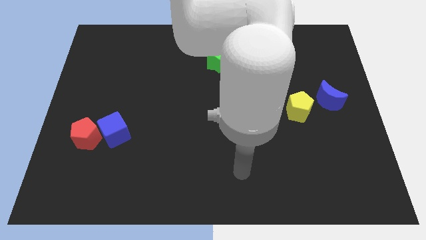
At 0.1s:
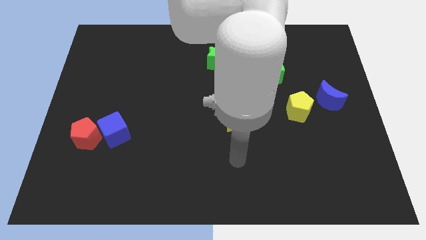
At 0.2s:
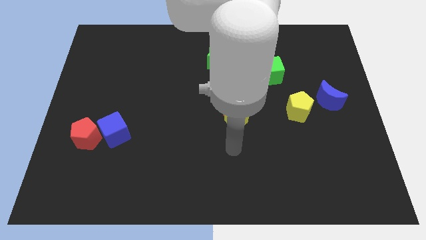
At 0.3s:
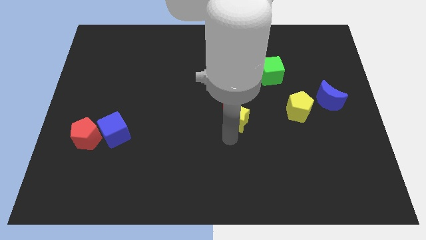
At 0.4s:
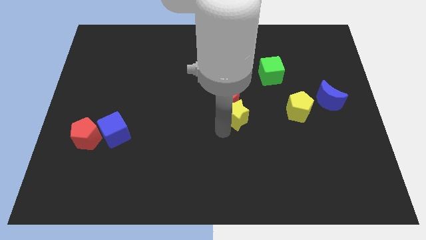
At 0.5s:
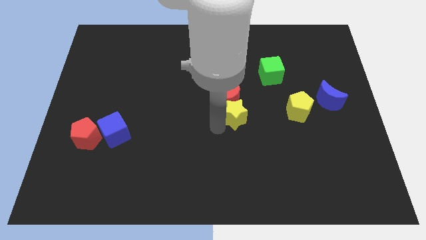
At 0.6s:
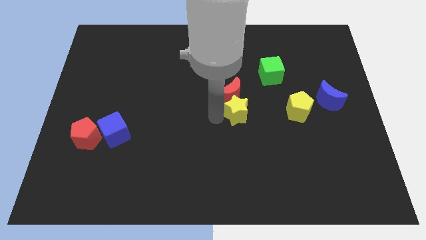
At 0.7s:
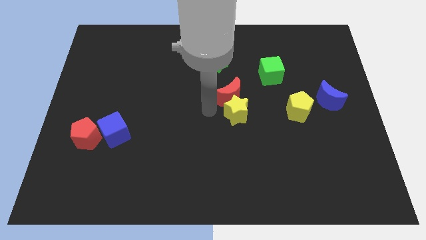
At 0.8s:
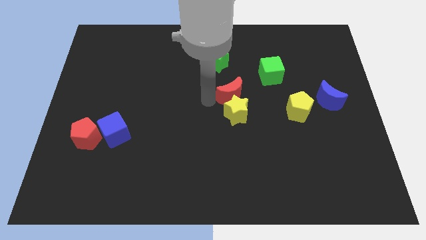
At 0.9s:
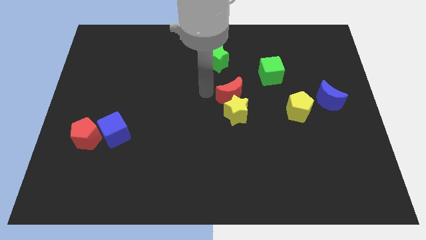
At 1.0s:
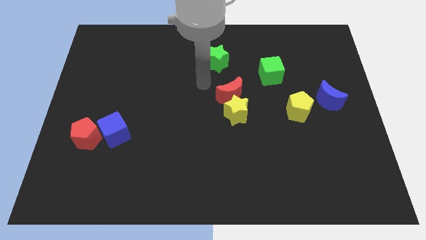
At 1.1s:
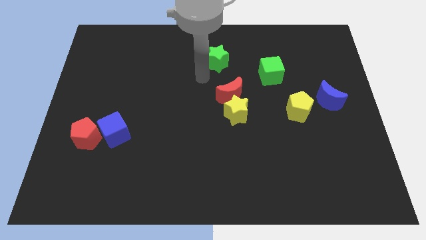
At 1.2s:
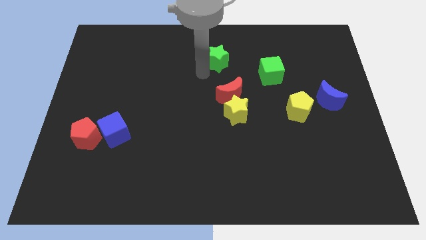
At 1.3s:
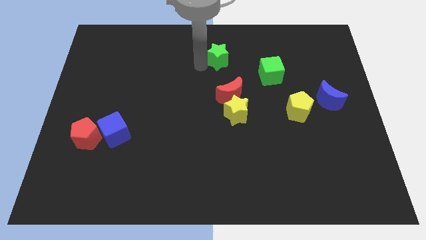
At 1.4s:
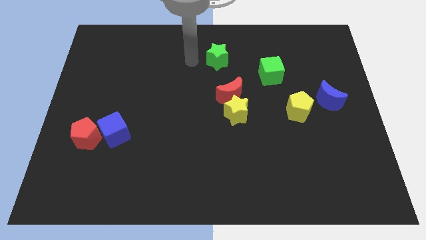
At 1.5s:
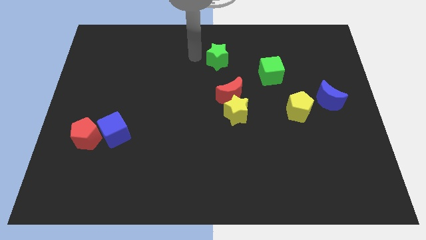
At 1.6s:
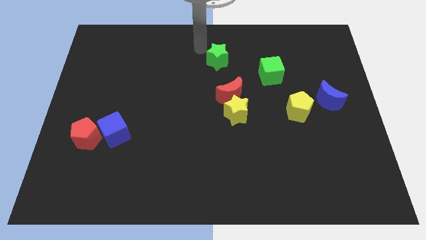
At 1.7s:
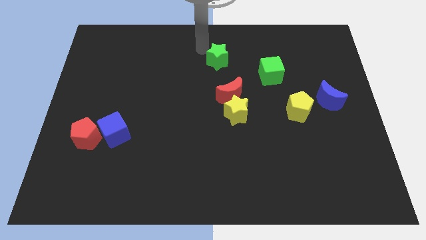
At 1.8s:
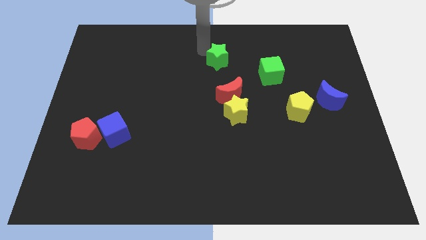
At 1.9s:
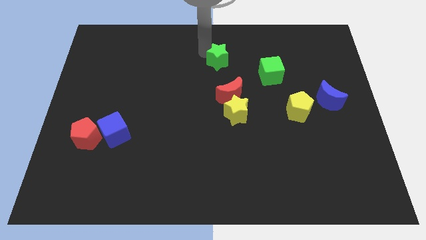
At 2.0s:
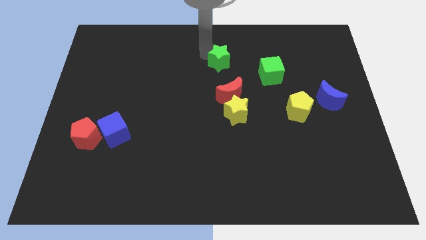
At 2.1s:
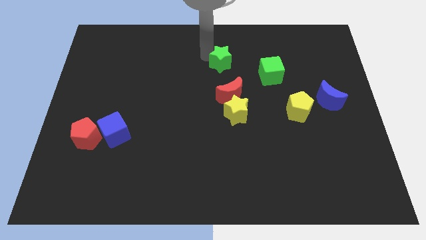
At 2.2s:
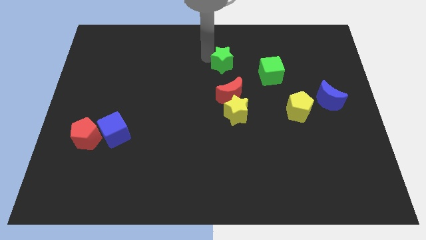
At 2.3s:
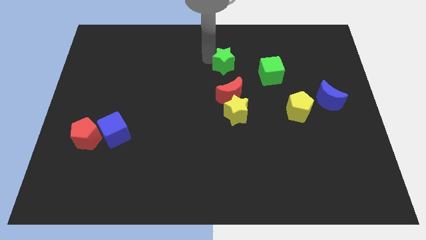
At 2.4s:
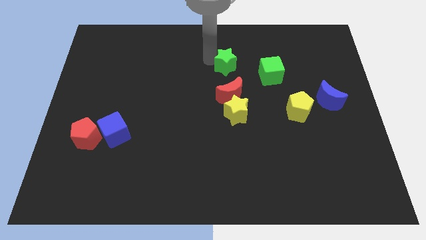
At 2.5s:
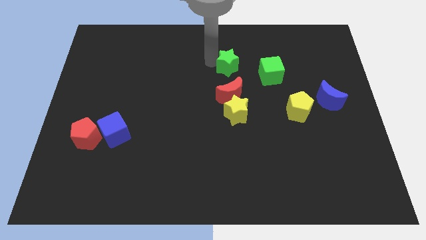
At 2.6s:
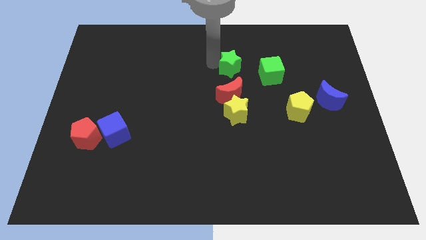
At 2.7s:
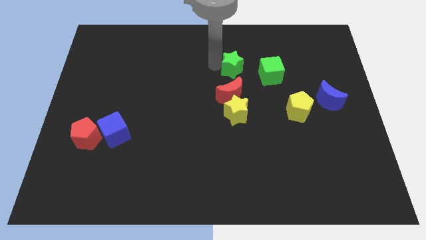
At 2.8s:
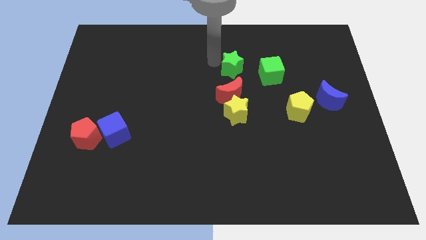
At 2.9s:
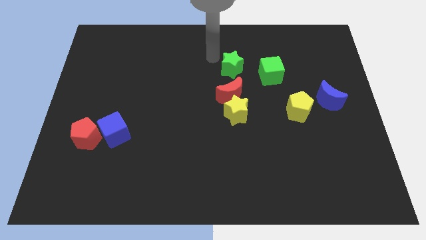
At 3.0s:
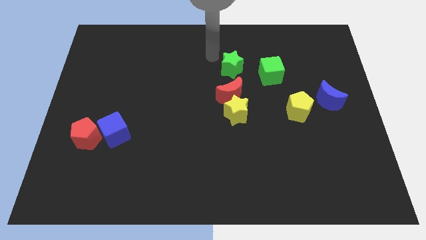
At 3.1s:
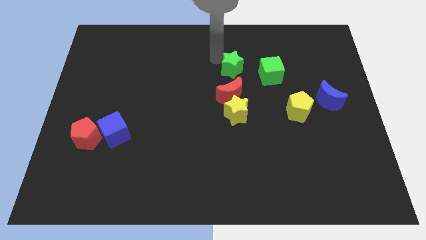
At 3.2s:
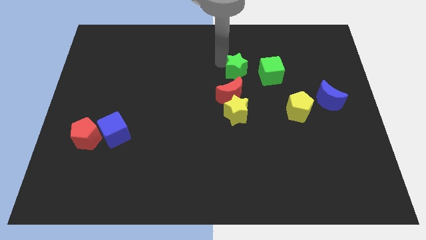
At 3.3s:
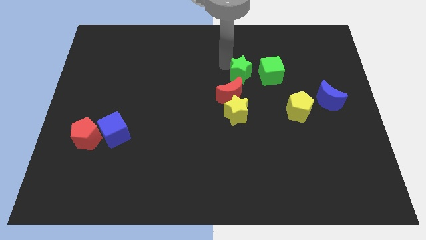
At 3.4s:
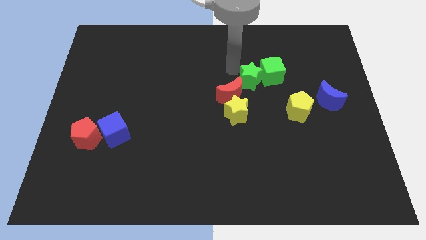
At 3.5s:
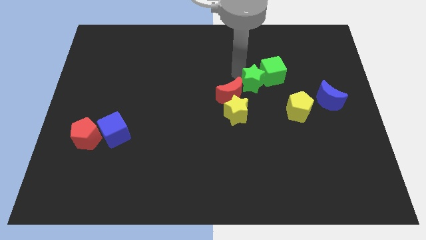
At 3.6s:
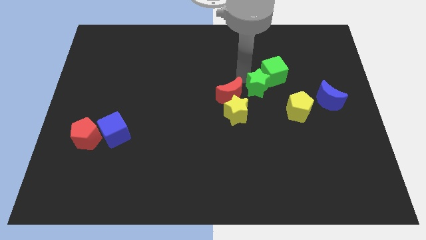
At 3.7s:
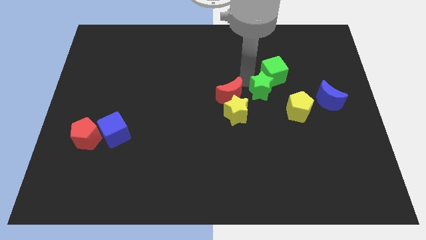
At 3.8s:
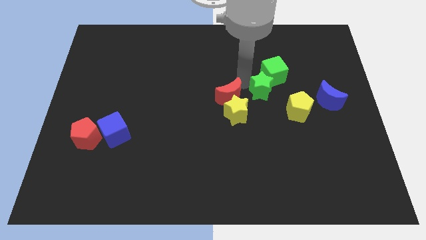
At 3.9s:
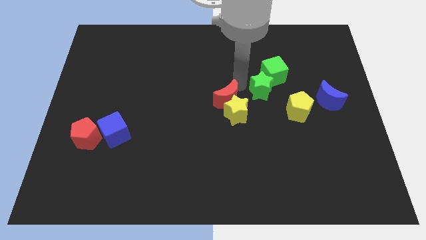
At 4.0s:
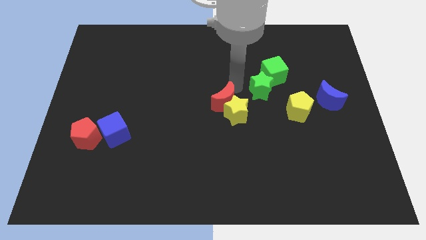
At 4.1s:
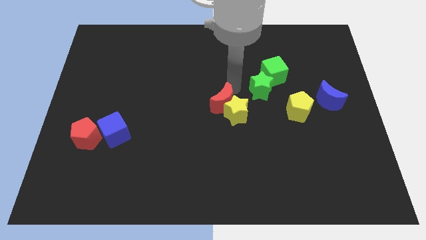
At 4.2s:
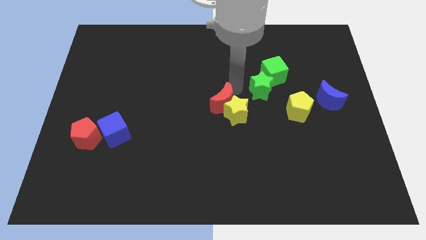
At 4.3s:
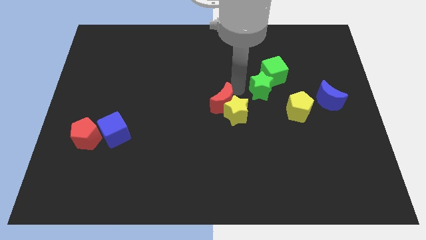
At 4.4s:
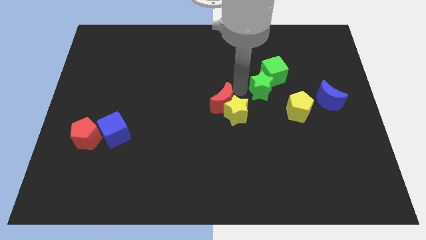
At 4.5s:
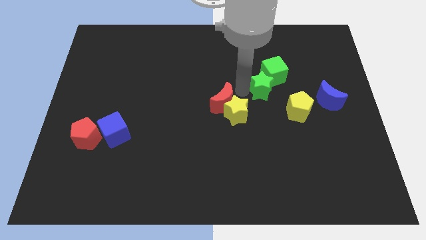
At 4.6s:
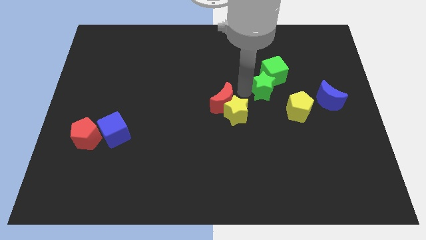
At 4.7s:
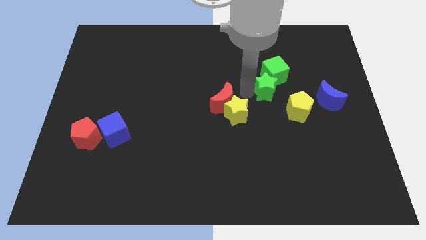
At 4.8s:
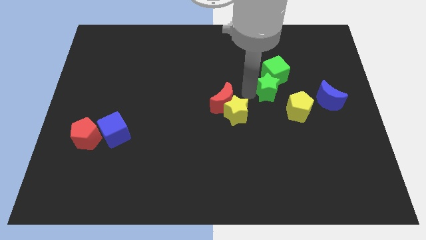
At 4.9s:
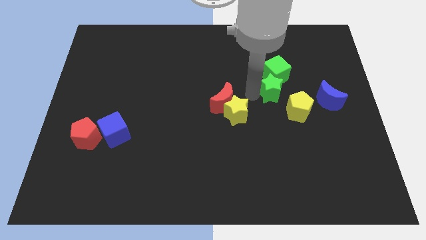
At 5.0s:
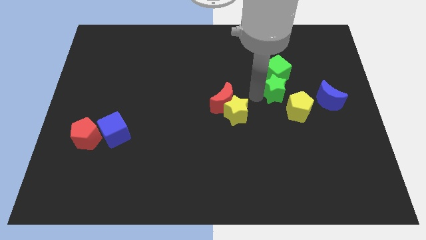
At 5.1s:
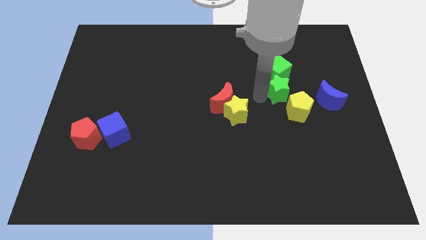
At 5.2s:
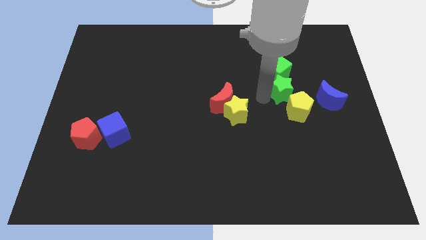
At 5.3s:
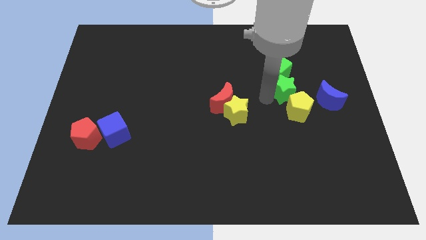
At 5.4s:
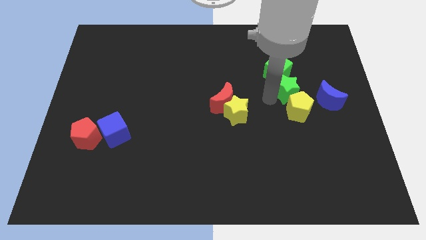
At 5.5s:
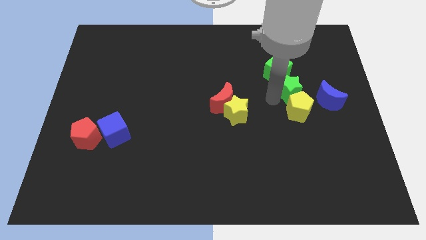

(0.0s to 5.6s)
move the green star diagonally up and to the left of the blue moon

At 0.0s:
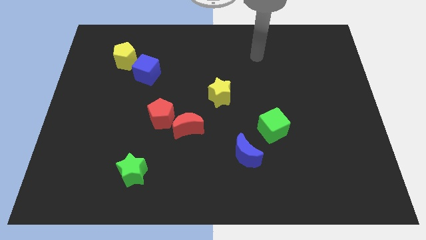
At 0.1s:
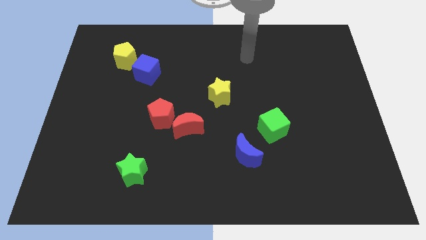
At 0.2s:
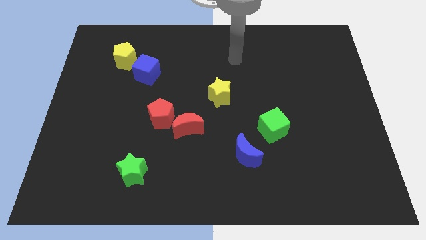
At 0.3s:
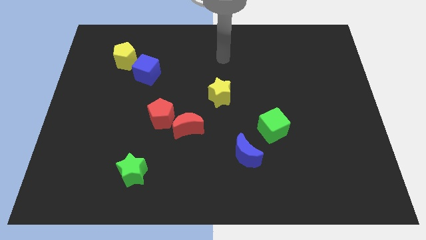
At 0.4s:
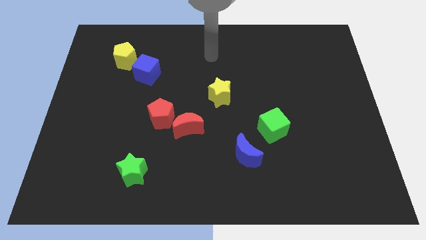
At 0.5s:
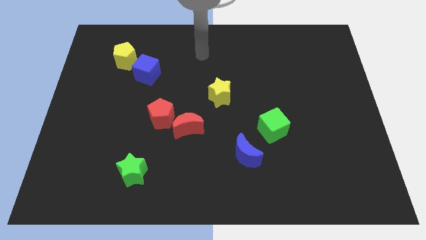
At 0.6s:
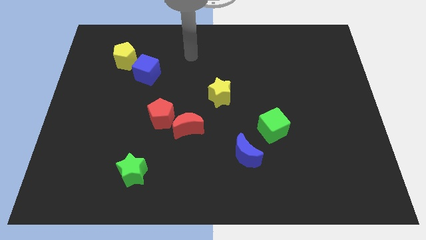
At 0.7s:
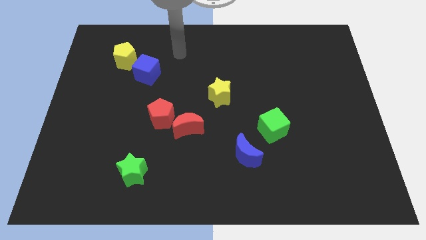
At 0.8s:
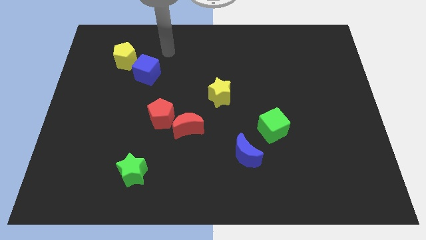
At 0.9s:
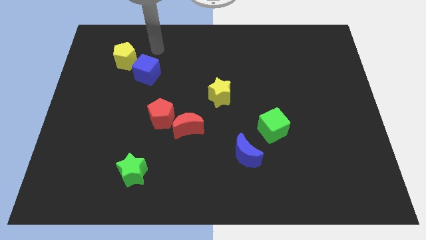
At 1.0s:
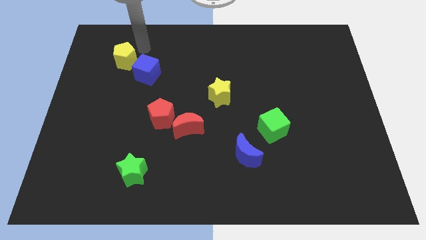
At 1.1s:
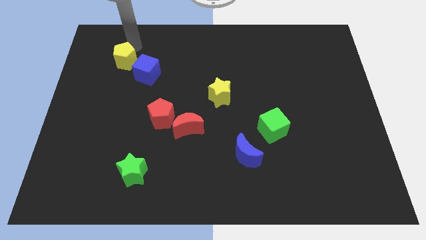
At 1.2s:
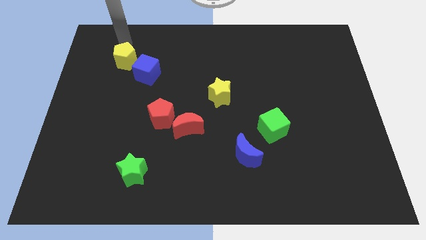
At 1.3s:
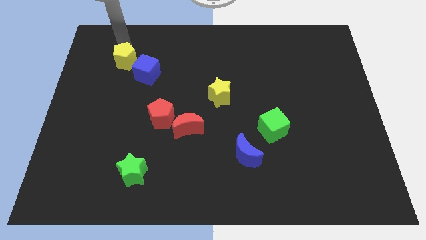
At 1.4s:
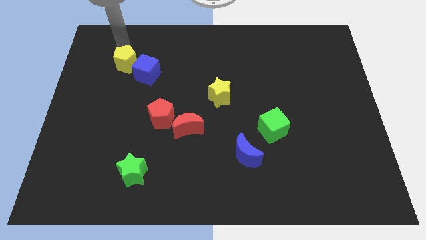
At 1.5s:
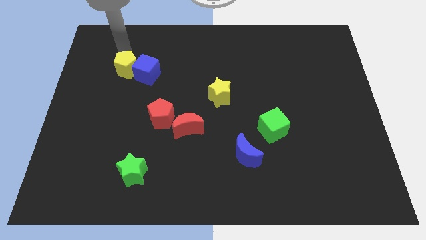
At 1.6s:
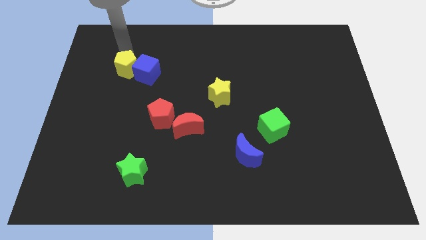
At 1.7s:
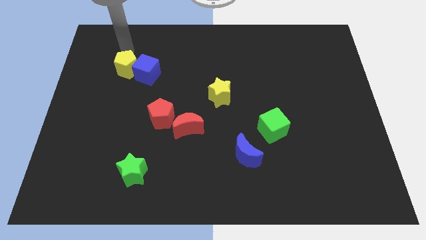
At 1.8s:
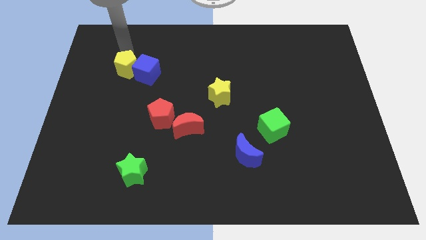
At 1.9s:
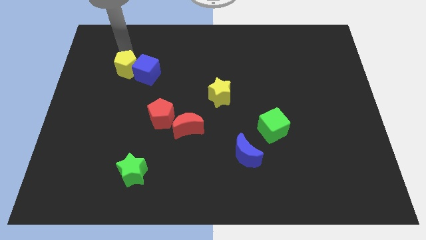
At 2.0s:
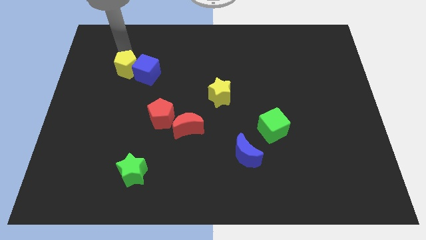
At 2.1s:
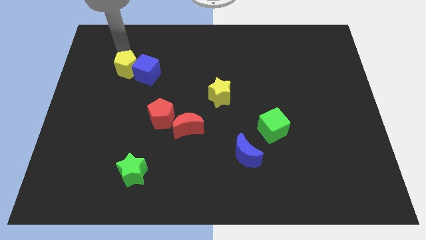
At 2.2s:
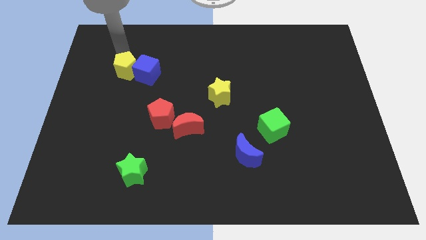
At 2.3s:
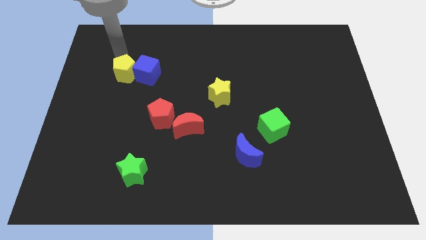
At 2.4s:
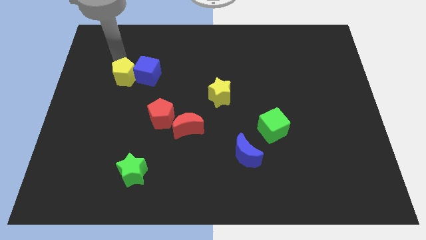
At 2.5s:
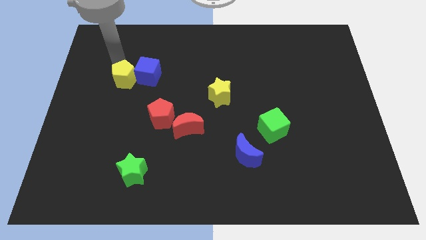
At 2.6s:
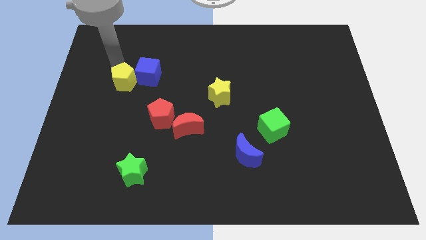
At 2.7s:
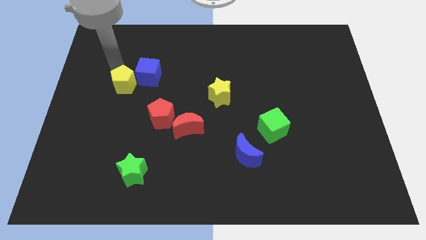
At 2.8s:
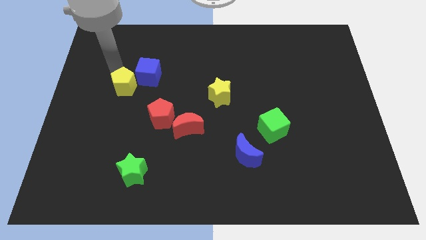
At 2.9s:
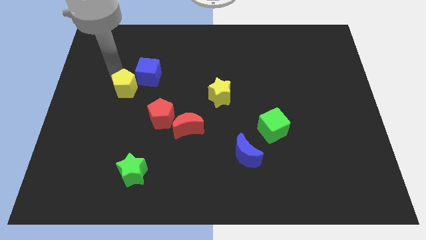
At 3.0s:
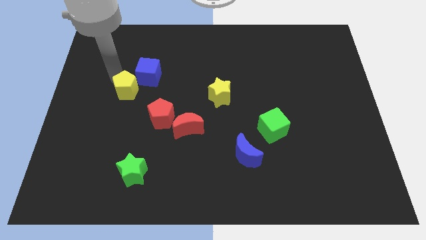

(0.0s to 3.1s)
push the yellow pentagon diagonally up and to the left of the red pentagon
